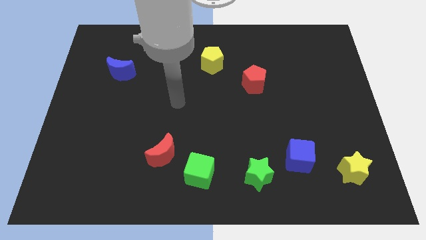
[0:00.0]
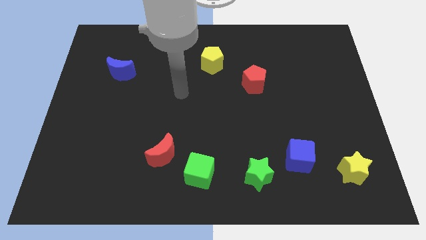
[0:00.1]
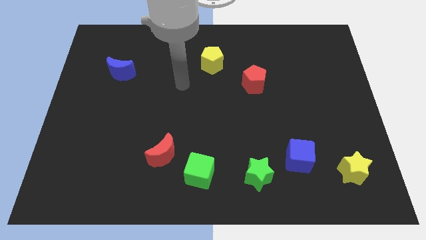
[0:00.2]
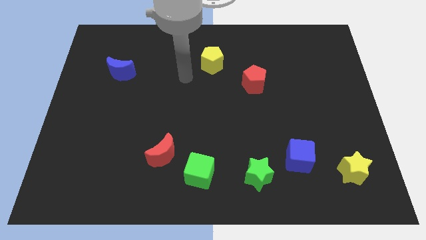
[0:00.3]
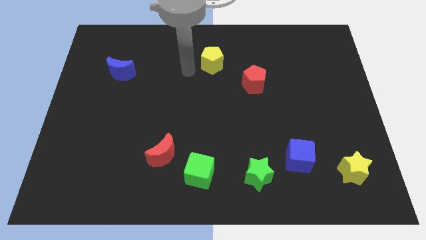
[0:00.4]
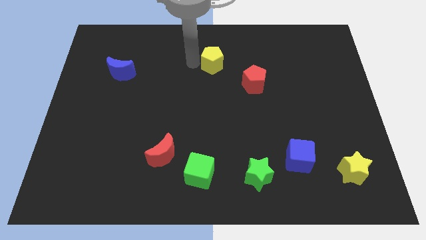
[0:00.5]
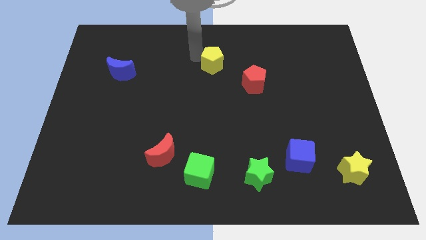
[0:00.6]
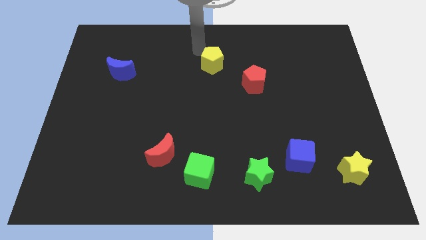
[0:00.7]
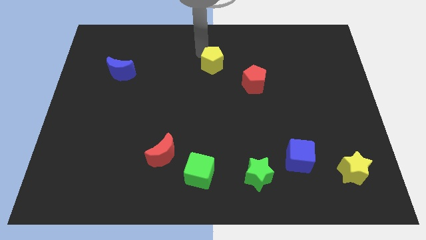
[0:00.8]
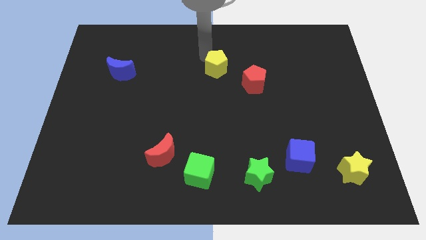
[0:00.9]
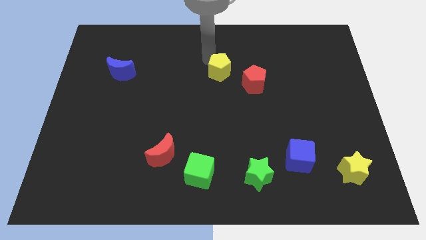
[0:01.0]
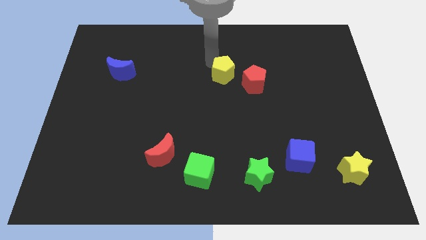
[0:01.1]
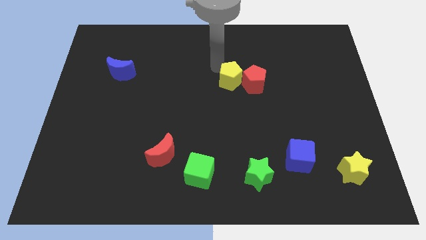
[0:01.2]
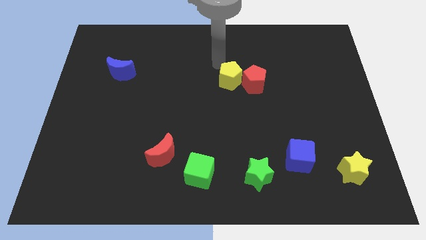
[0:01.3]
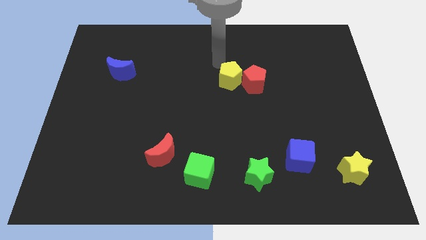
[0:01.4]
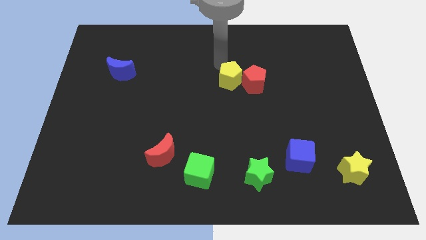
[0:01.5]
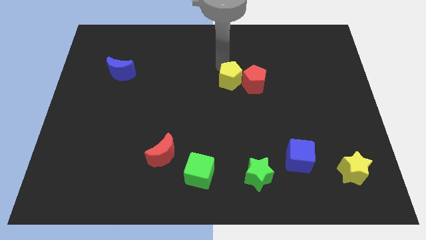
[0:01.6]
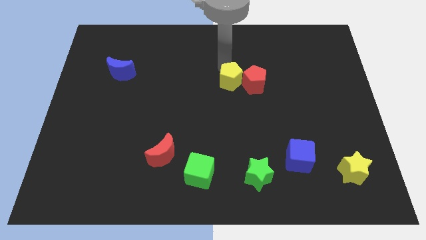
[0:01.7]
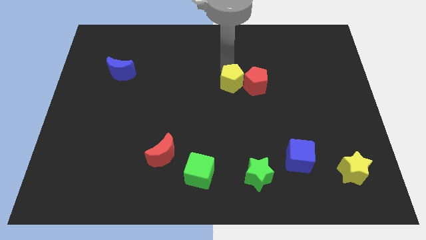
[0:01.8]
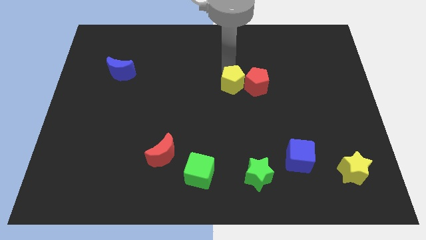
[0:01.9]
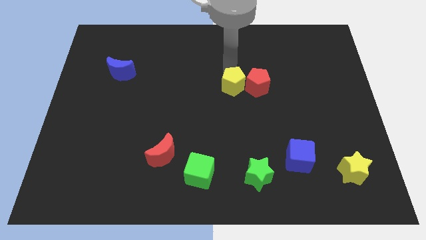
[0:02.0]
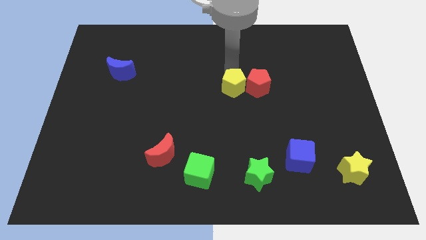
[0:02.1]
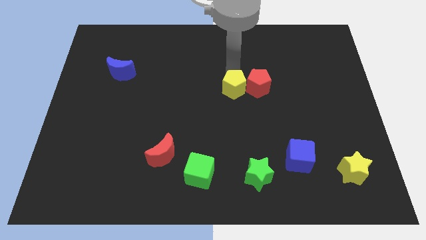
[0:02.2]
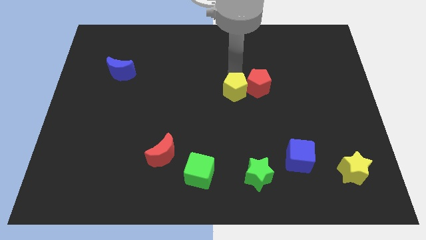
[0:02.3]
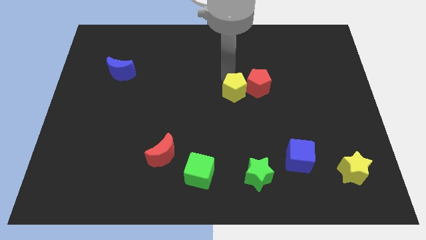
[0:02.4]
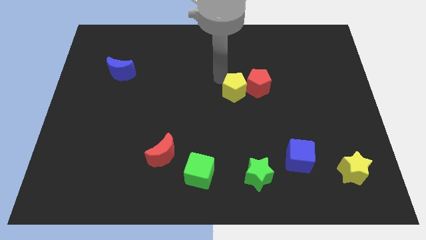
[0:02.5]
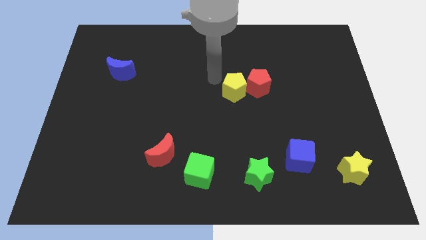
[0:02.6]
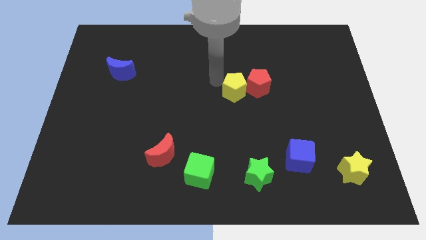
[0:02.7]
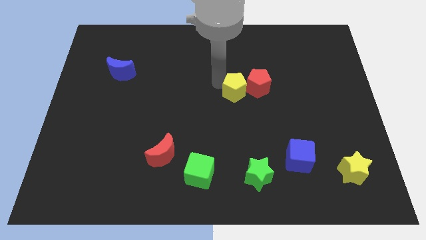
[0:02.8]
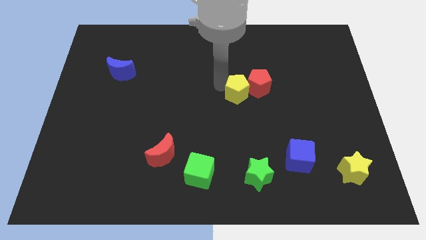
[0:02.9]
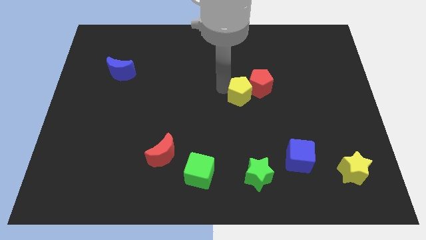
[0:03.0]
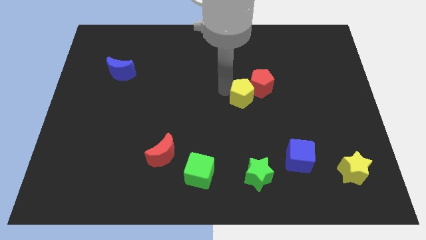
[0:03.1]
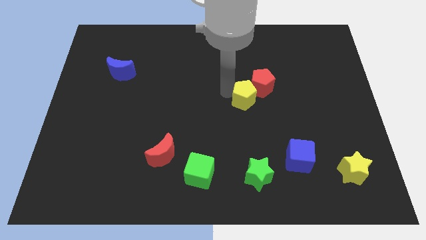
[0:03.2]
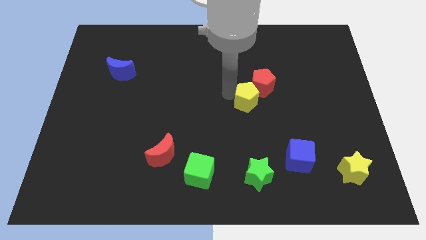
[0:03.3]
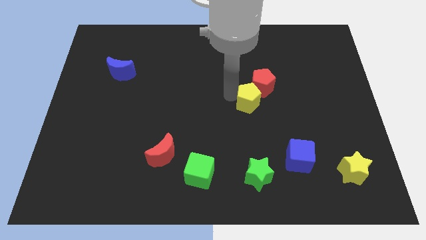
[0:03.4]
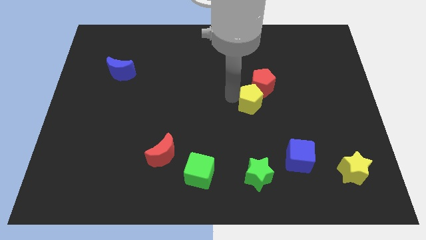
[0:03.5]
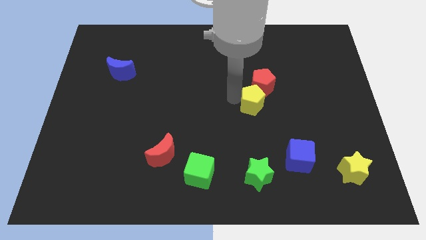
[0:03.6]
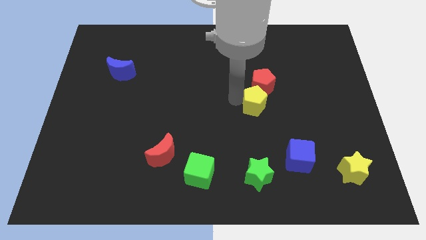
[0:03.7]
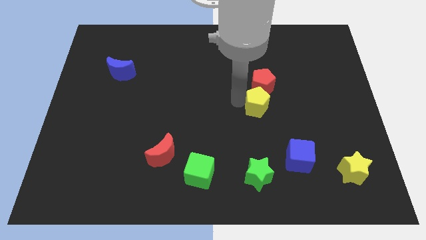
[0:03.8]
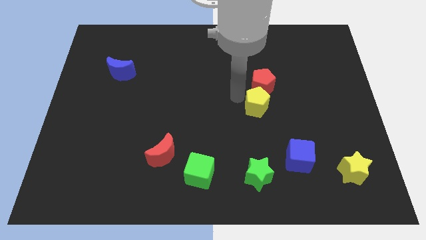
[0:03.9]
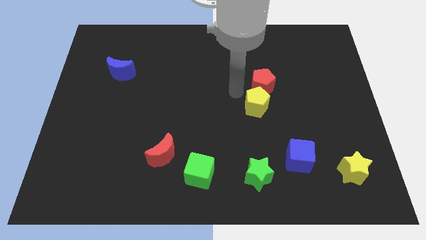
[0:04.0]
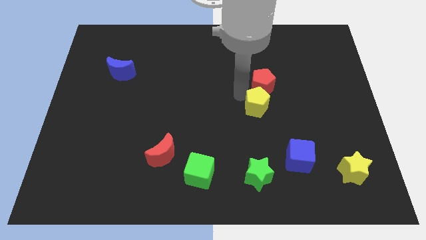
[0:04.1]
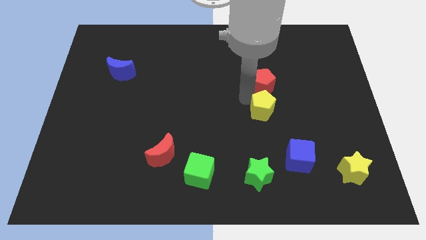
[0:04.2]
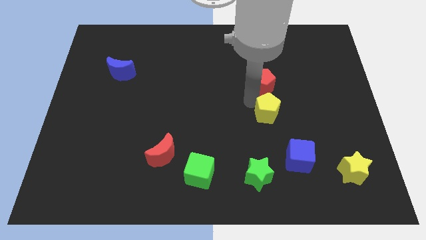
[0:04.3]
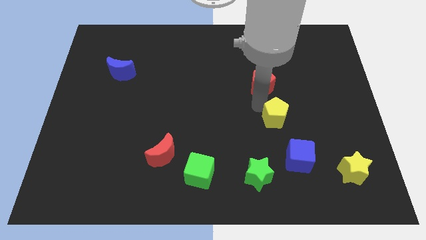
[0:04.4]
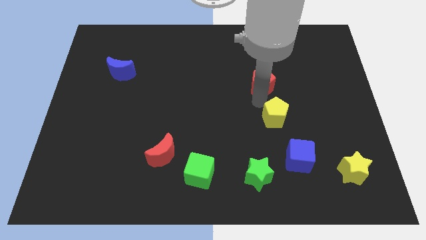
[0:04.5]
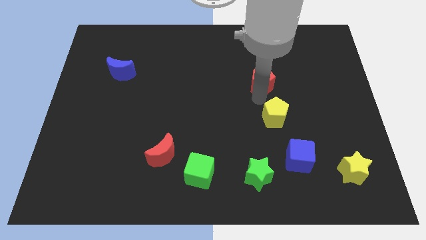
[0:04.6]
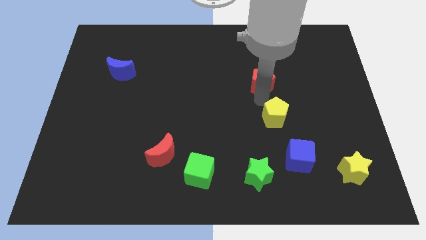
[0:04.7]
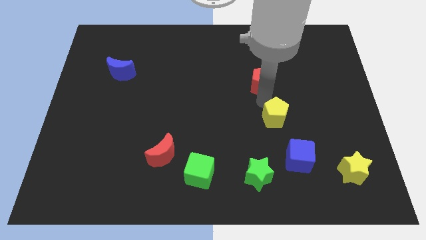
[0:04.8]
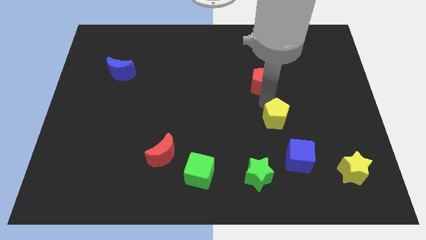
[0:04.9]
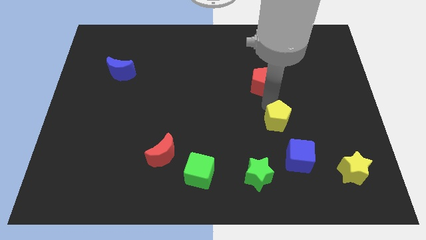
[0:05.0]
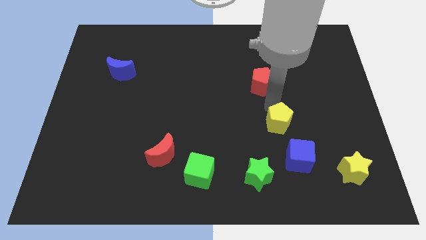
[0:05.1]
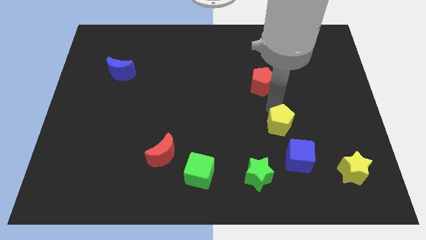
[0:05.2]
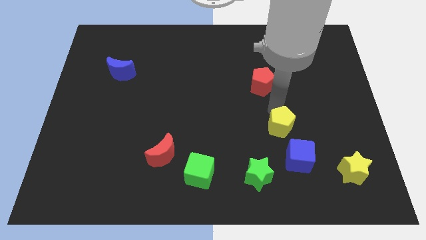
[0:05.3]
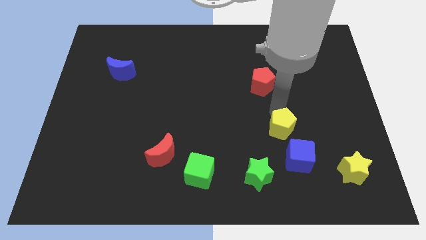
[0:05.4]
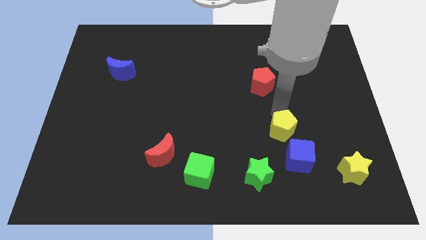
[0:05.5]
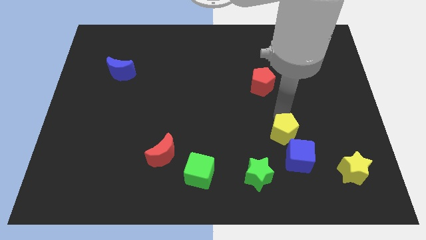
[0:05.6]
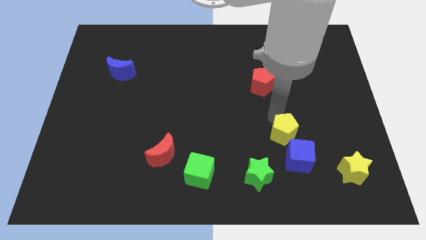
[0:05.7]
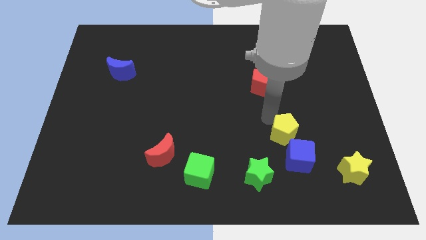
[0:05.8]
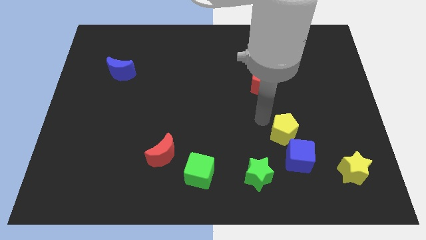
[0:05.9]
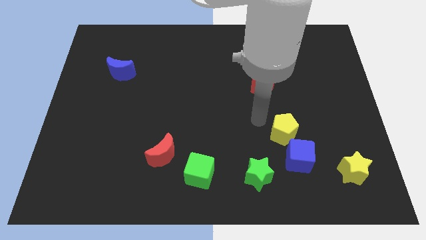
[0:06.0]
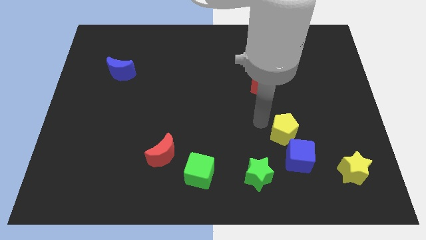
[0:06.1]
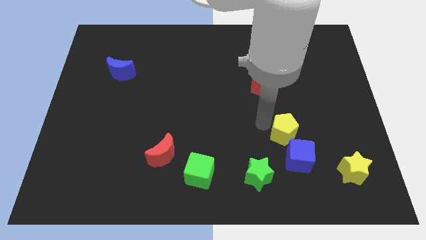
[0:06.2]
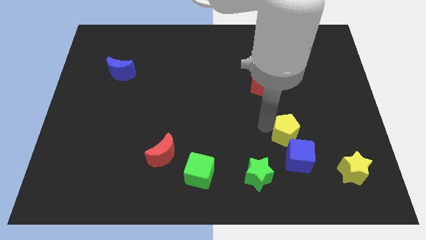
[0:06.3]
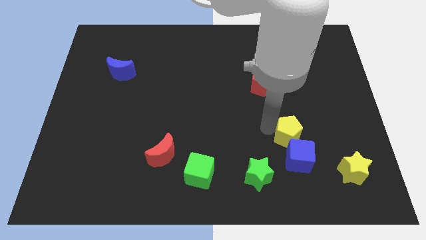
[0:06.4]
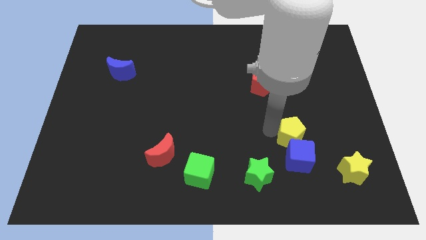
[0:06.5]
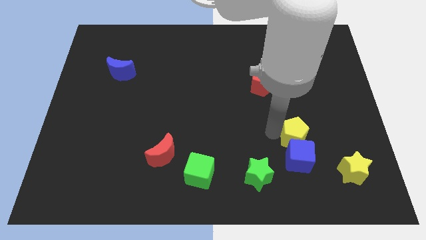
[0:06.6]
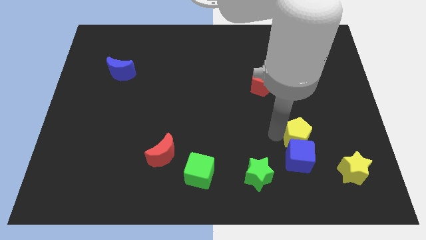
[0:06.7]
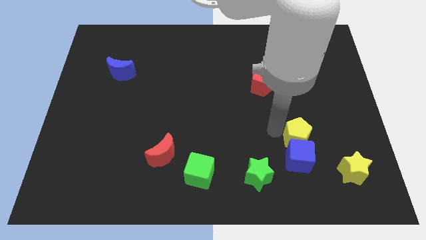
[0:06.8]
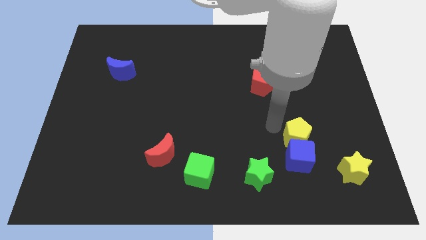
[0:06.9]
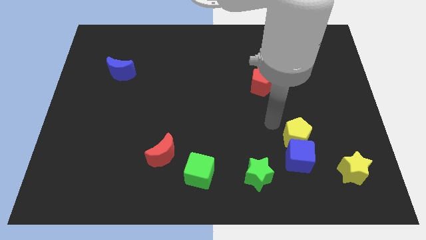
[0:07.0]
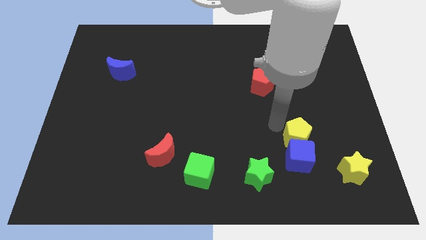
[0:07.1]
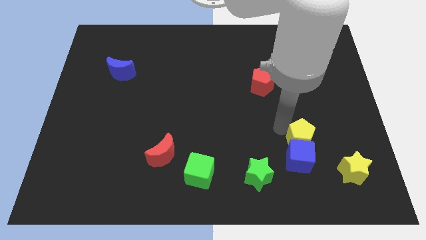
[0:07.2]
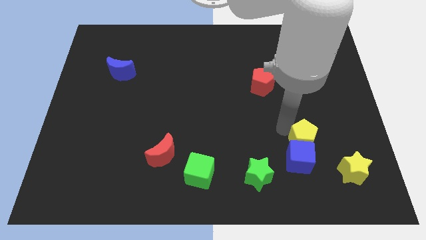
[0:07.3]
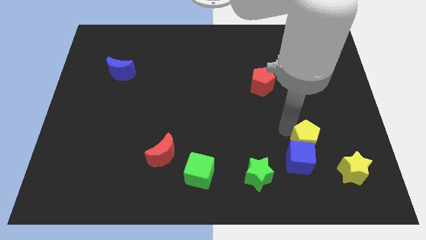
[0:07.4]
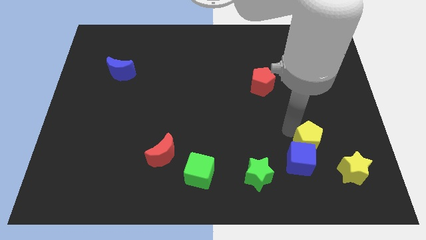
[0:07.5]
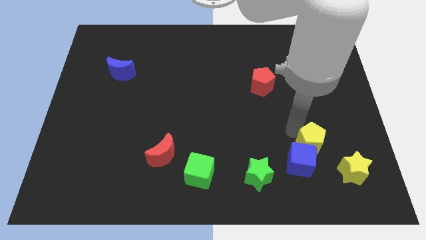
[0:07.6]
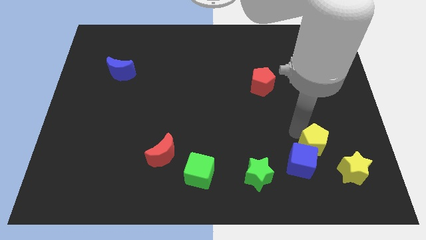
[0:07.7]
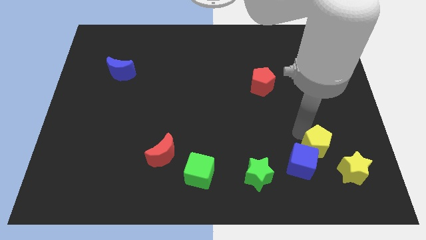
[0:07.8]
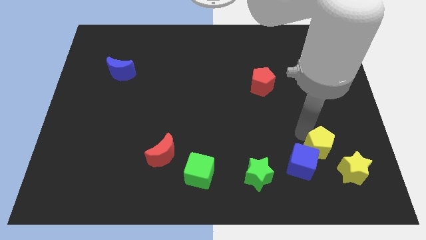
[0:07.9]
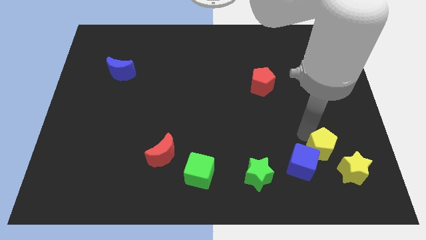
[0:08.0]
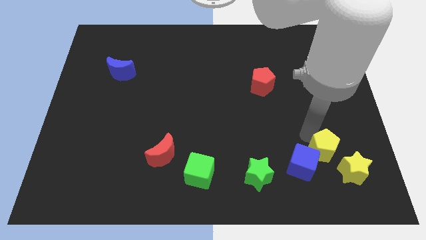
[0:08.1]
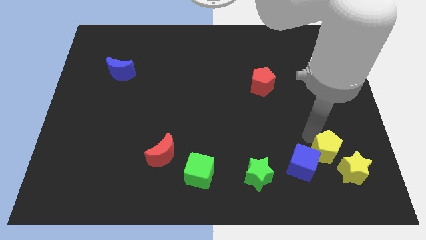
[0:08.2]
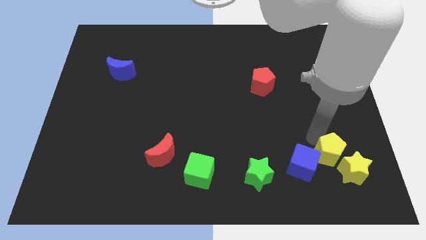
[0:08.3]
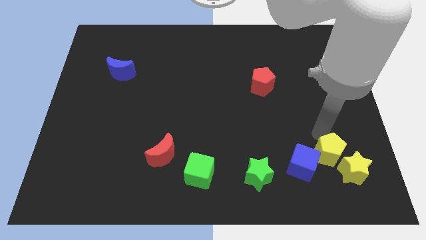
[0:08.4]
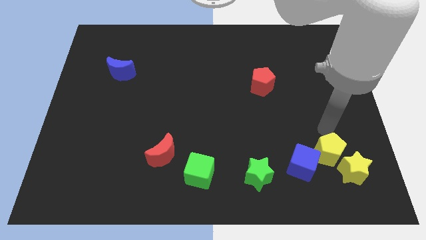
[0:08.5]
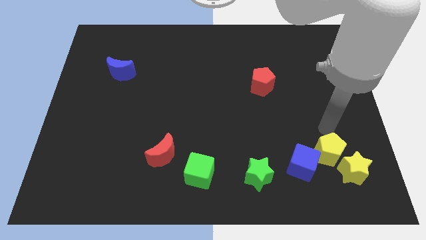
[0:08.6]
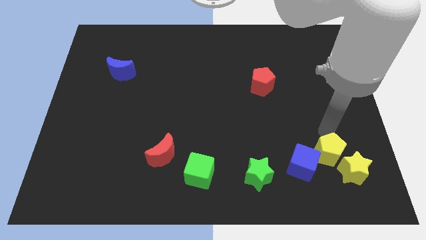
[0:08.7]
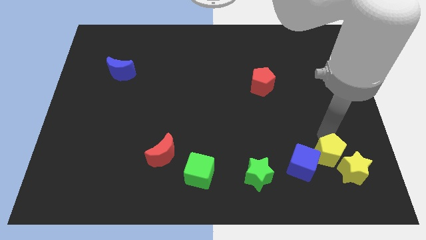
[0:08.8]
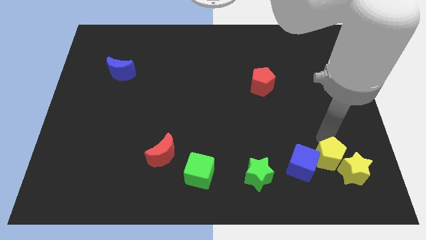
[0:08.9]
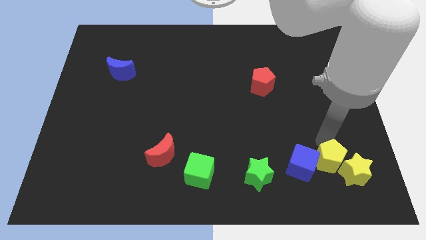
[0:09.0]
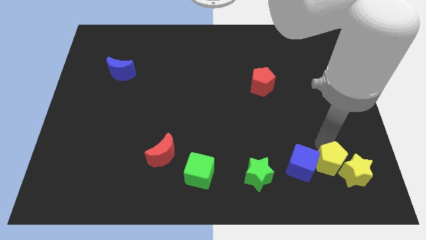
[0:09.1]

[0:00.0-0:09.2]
put the yellow pentagon diagonally down and to the right of the blue cube
